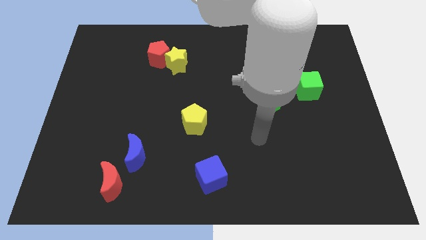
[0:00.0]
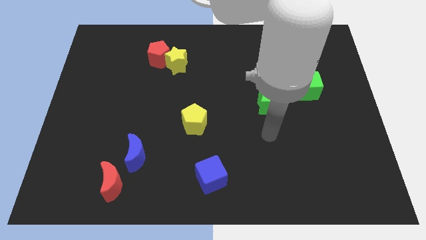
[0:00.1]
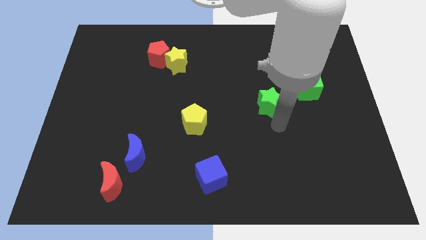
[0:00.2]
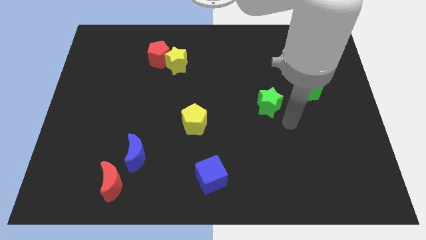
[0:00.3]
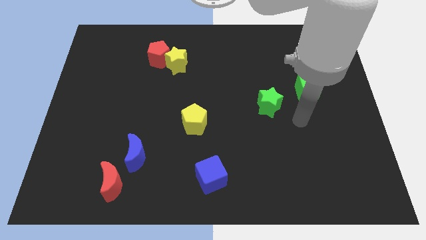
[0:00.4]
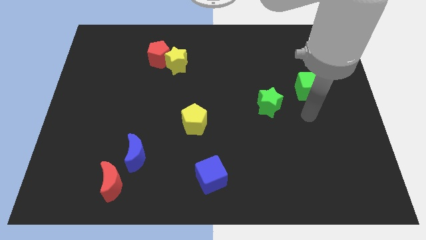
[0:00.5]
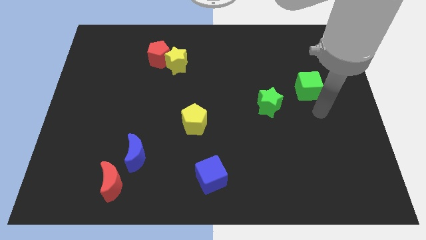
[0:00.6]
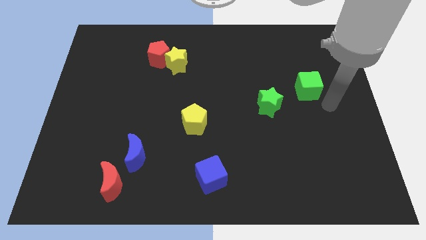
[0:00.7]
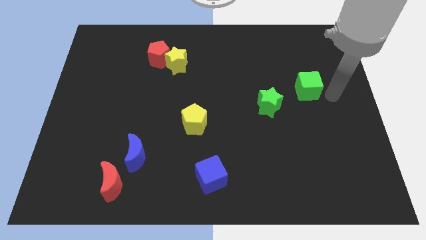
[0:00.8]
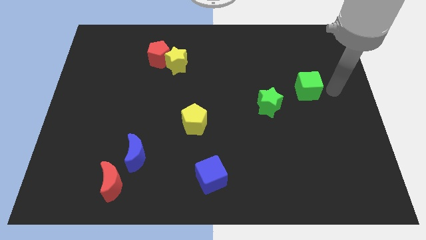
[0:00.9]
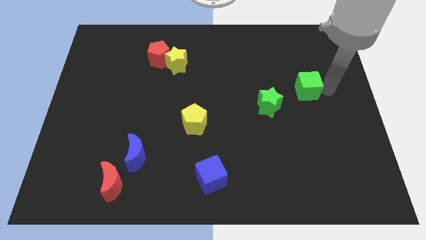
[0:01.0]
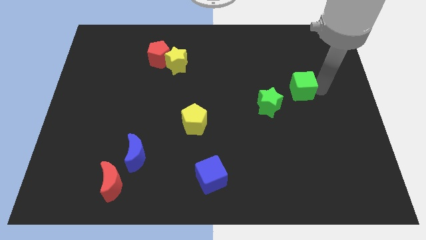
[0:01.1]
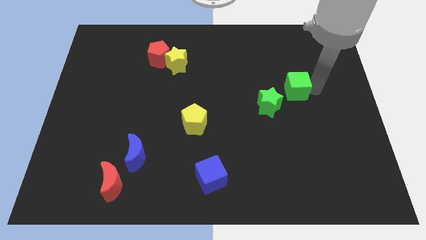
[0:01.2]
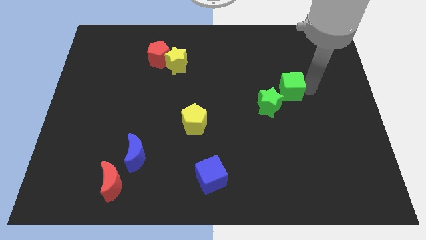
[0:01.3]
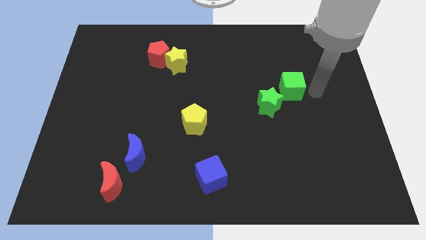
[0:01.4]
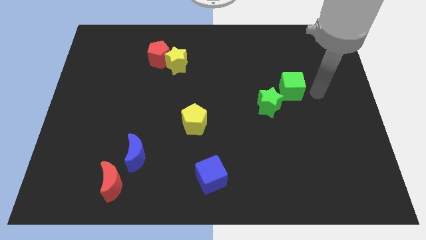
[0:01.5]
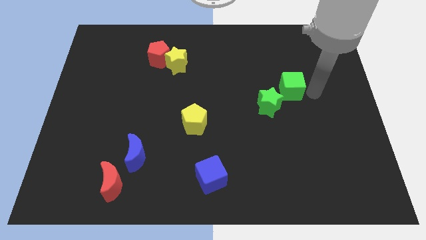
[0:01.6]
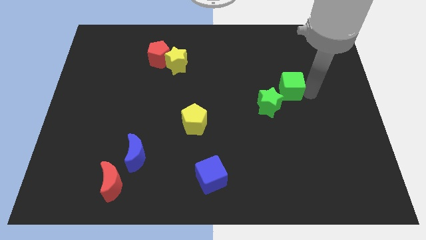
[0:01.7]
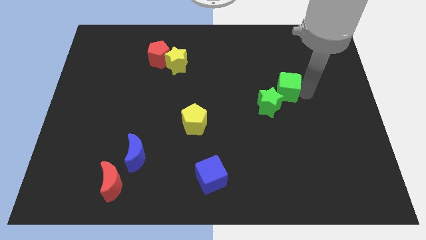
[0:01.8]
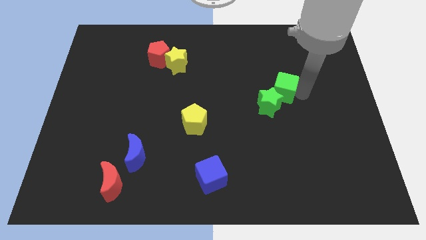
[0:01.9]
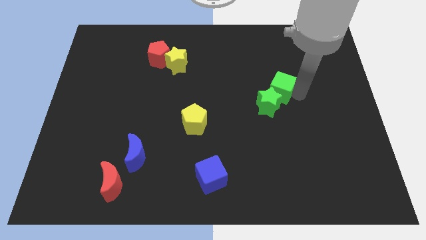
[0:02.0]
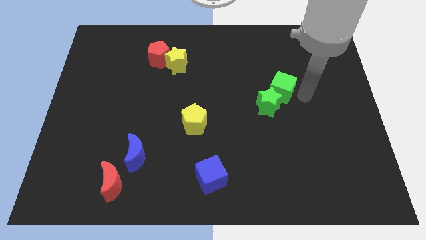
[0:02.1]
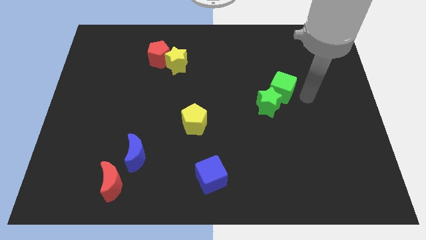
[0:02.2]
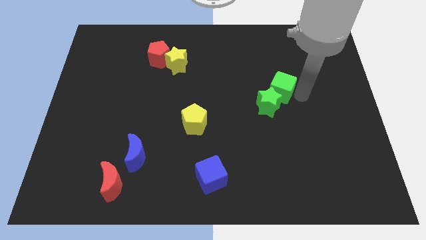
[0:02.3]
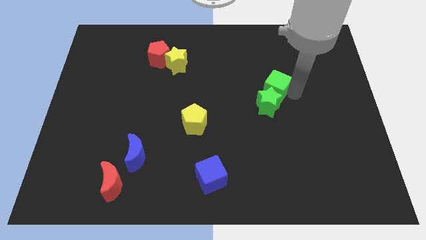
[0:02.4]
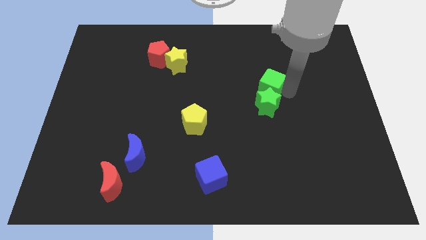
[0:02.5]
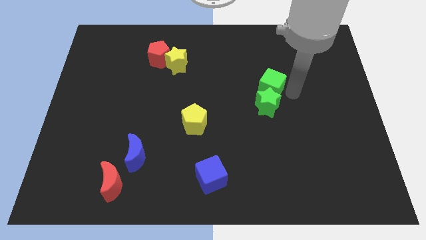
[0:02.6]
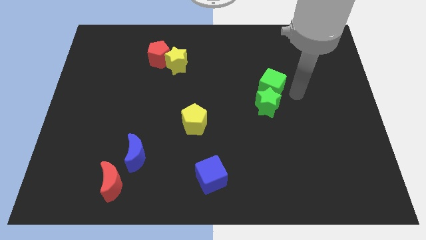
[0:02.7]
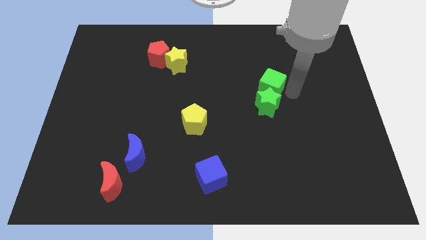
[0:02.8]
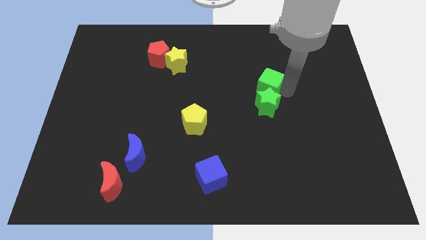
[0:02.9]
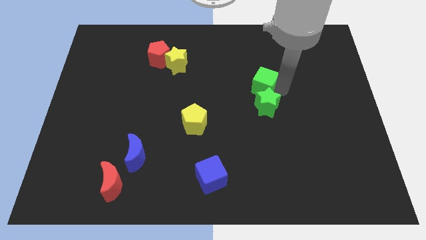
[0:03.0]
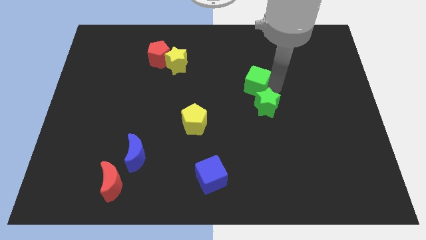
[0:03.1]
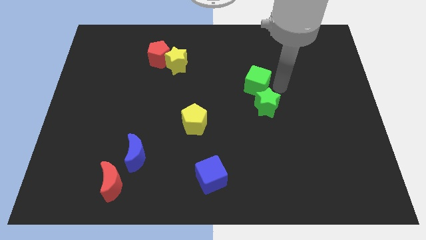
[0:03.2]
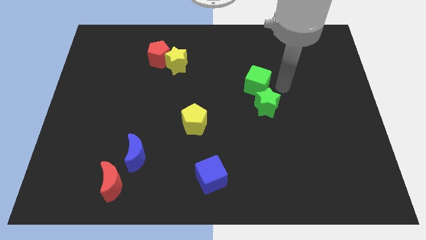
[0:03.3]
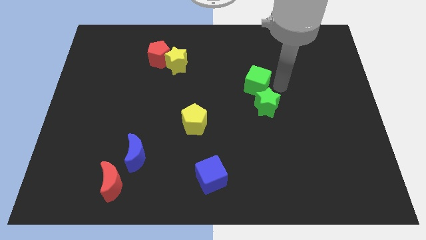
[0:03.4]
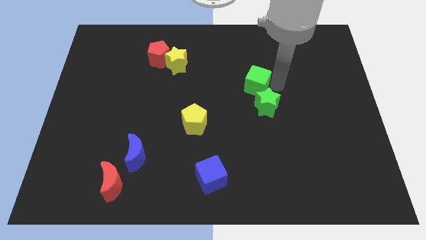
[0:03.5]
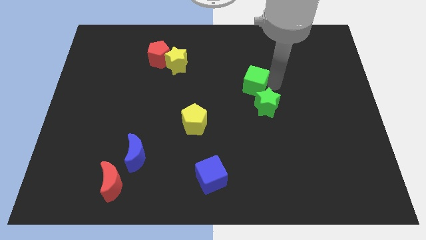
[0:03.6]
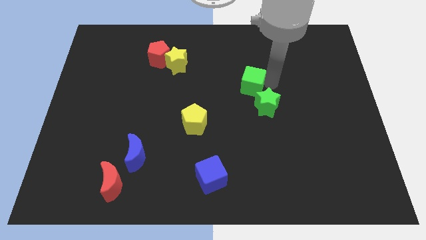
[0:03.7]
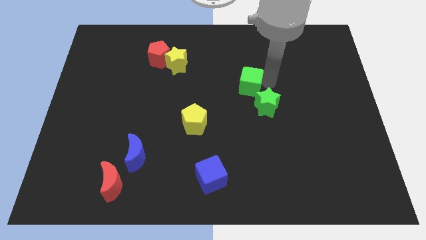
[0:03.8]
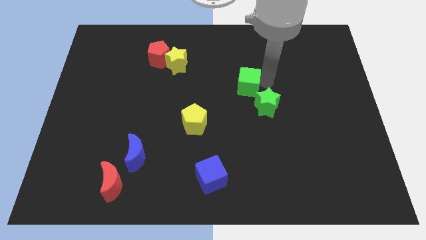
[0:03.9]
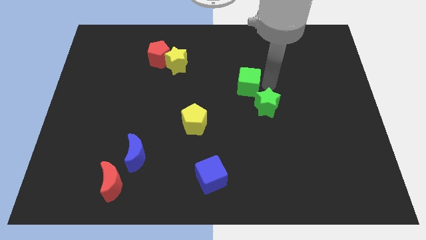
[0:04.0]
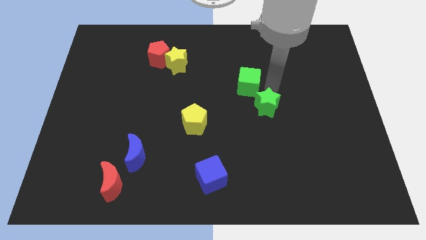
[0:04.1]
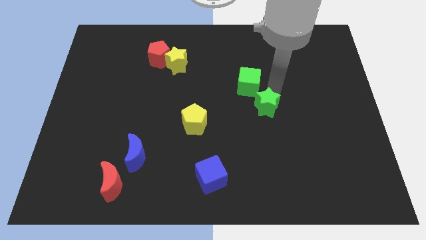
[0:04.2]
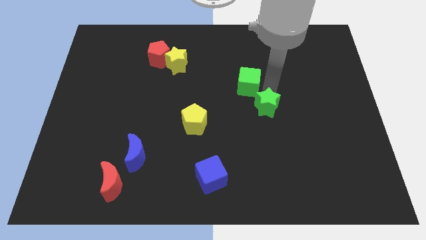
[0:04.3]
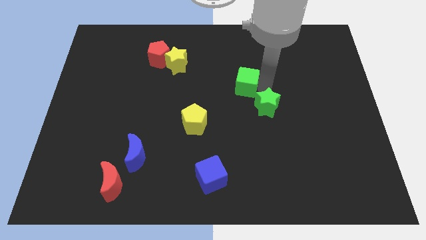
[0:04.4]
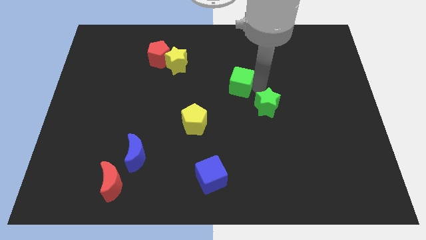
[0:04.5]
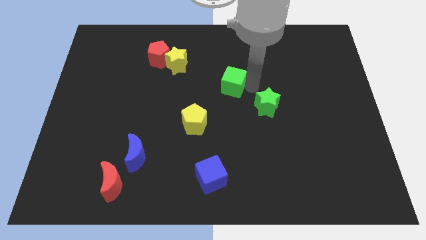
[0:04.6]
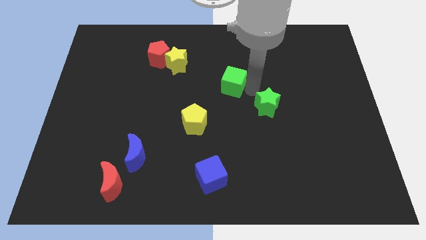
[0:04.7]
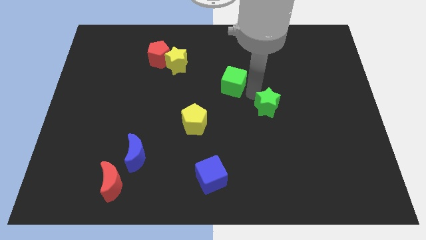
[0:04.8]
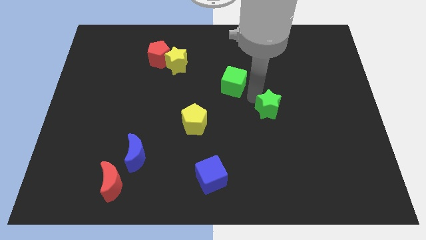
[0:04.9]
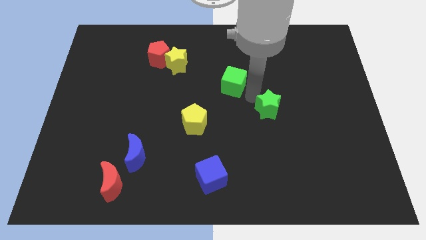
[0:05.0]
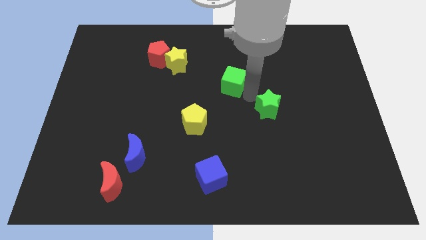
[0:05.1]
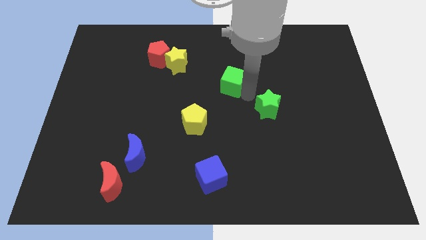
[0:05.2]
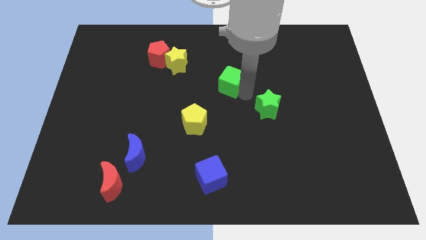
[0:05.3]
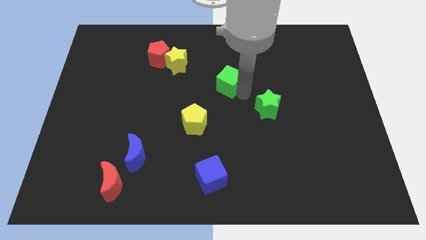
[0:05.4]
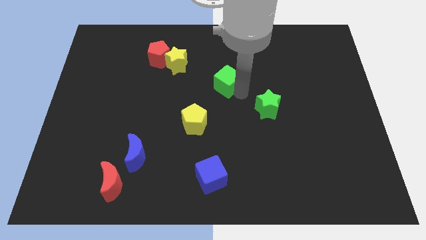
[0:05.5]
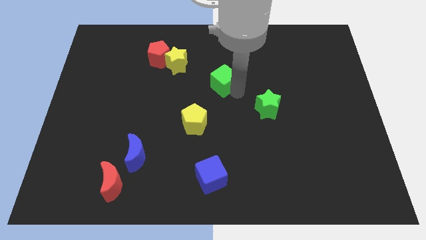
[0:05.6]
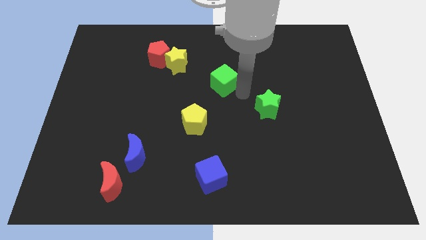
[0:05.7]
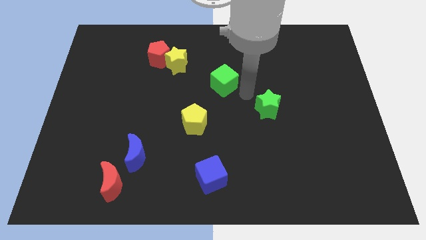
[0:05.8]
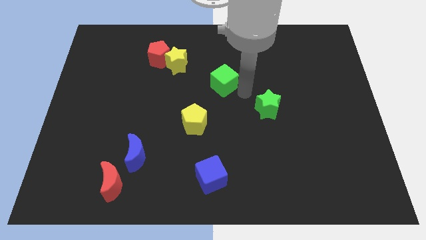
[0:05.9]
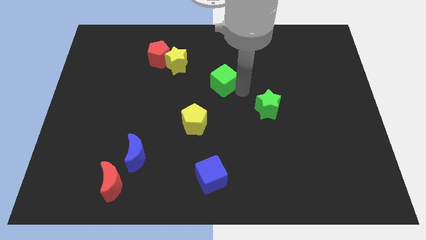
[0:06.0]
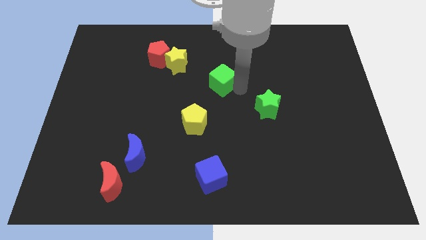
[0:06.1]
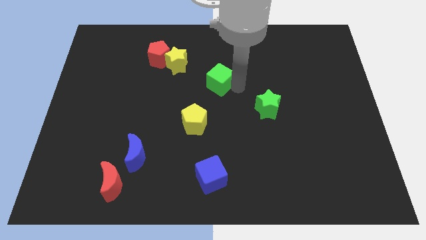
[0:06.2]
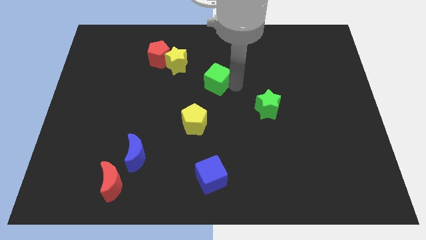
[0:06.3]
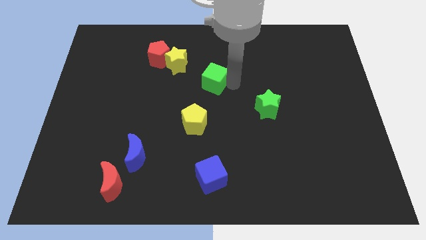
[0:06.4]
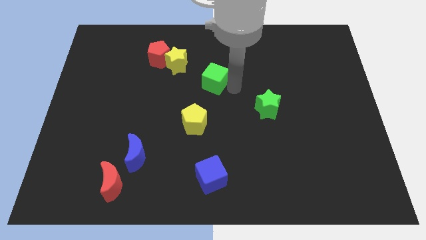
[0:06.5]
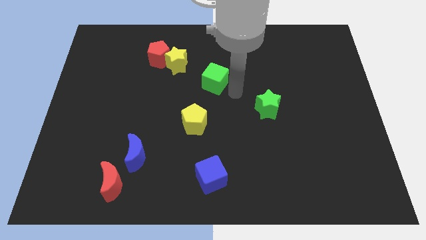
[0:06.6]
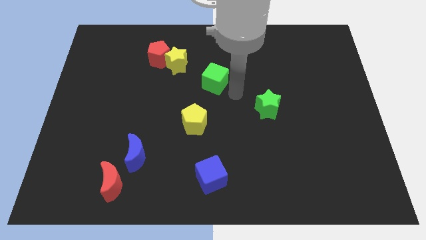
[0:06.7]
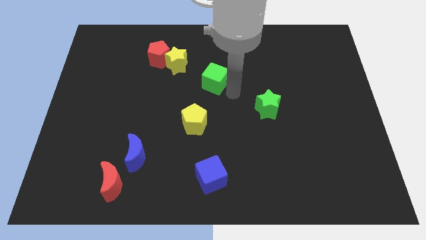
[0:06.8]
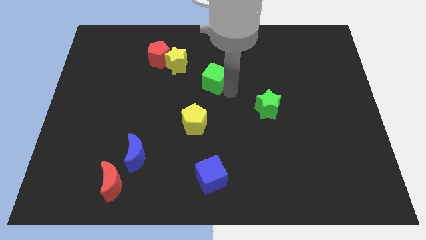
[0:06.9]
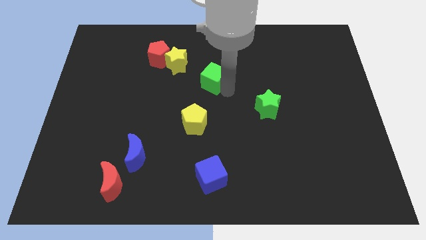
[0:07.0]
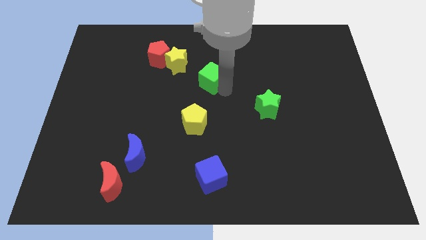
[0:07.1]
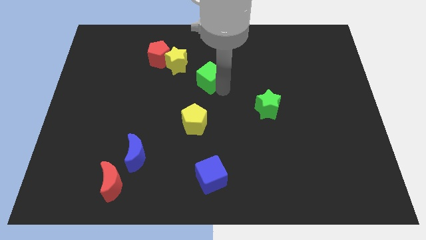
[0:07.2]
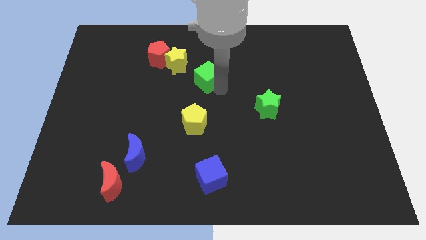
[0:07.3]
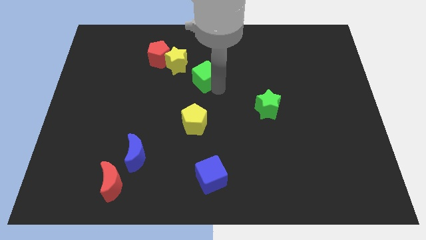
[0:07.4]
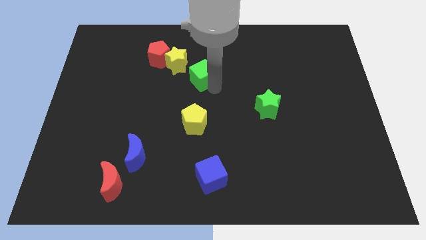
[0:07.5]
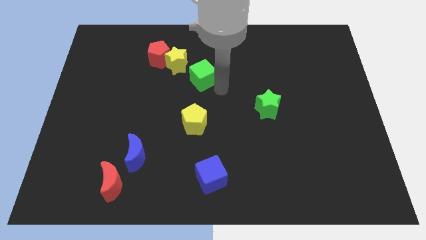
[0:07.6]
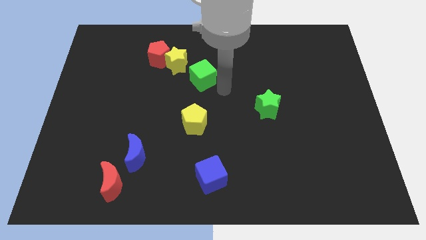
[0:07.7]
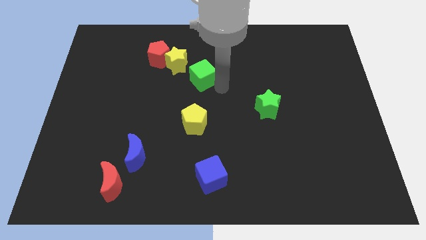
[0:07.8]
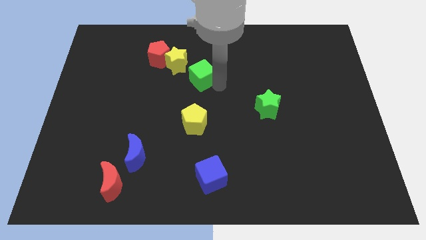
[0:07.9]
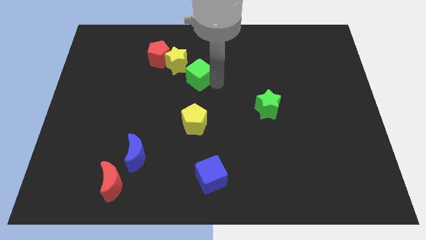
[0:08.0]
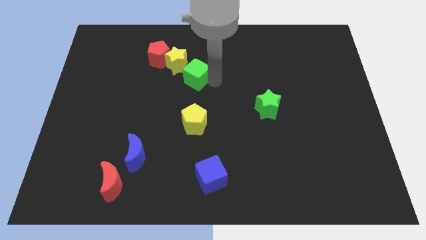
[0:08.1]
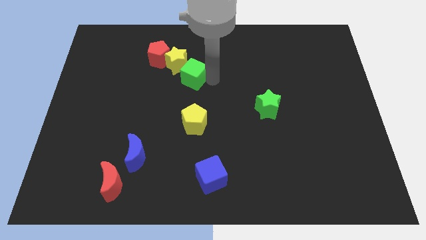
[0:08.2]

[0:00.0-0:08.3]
slide the green cube to the yellow star

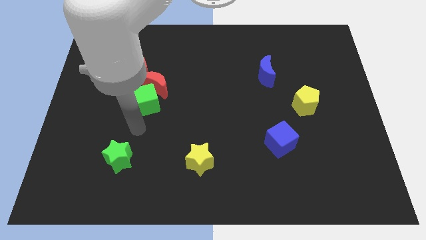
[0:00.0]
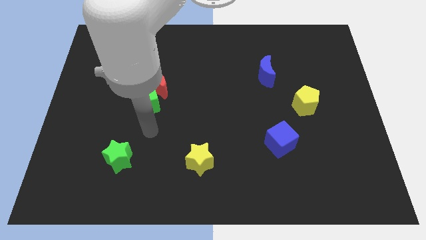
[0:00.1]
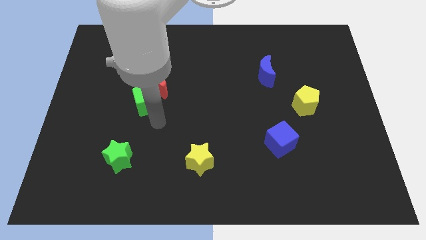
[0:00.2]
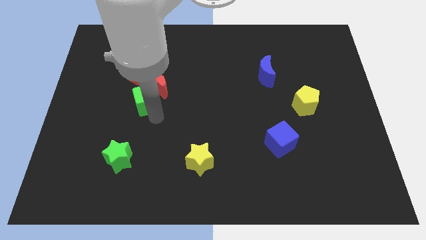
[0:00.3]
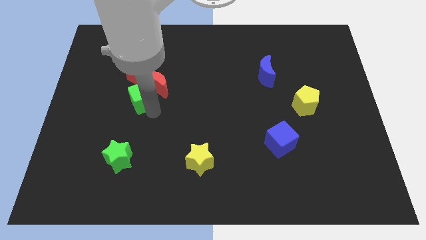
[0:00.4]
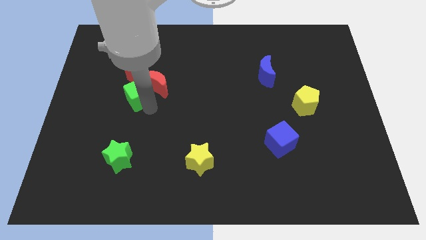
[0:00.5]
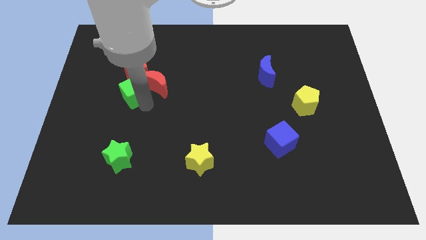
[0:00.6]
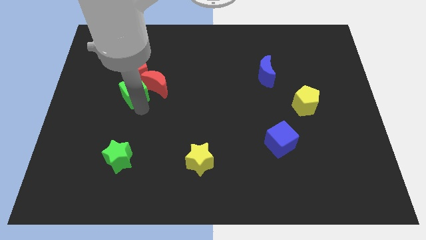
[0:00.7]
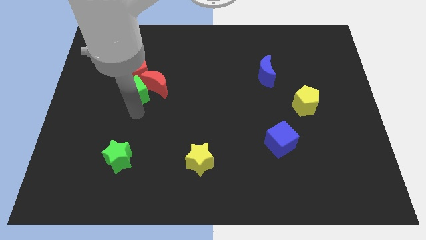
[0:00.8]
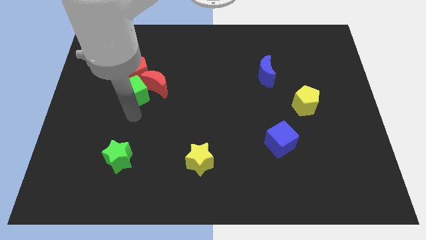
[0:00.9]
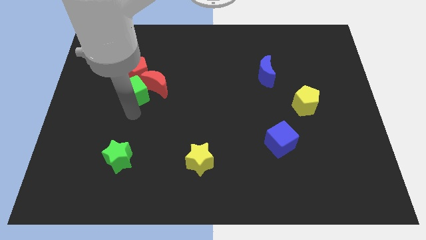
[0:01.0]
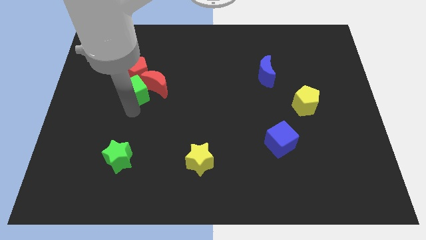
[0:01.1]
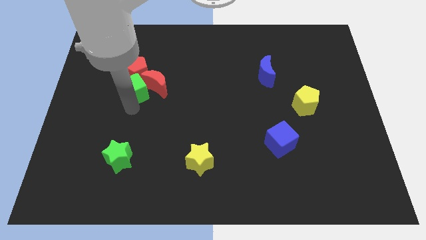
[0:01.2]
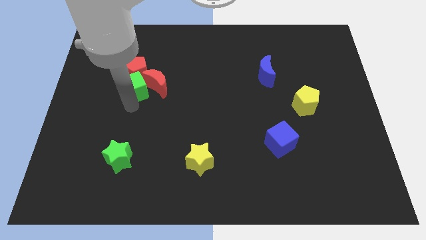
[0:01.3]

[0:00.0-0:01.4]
slide the green cube close to the red pentagon
